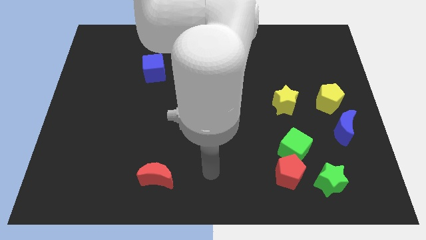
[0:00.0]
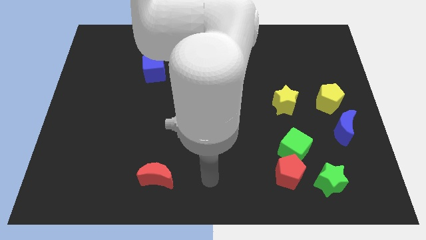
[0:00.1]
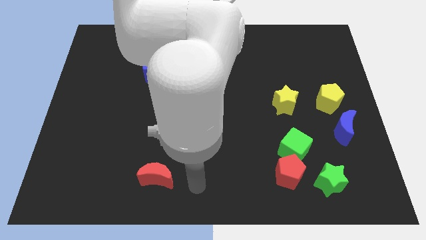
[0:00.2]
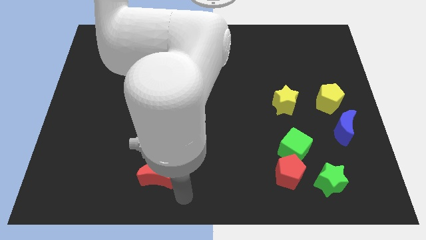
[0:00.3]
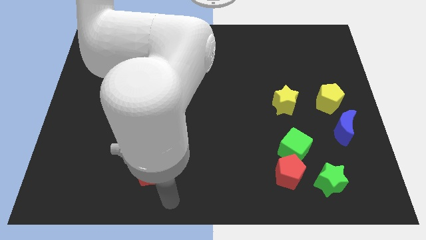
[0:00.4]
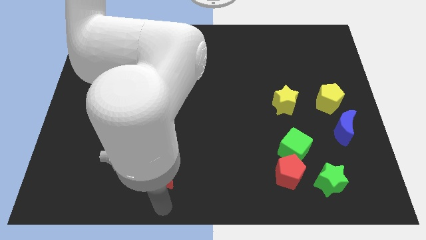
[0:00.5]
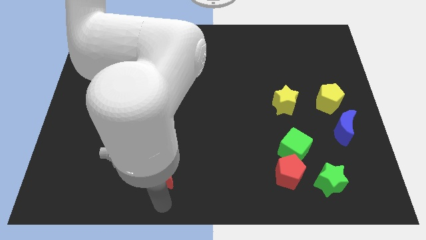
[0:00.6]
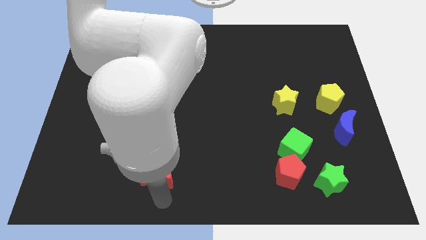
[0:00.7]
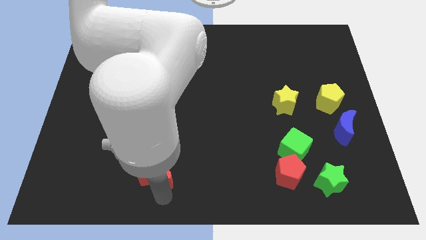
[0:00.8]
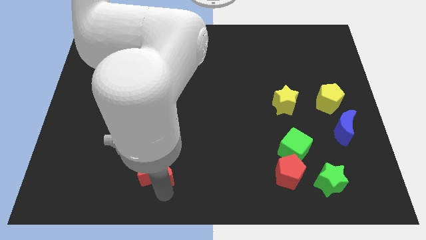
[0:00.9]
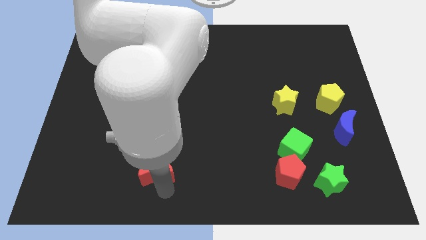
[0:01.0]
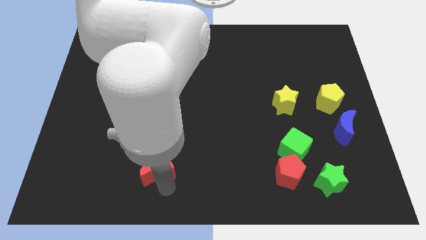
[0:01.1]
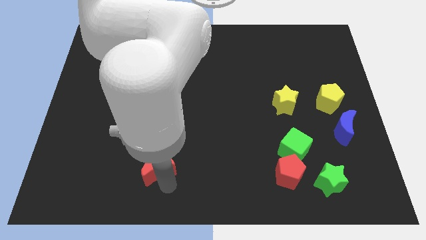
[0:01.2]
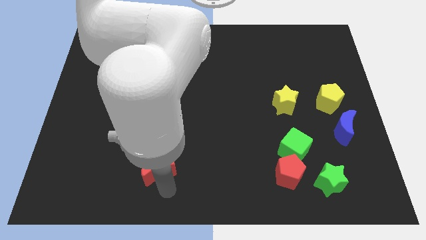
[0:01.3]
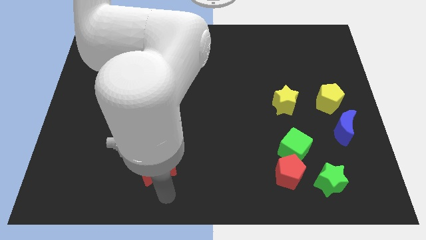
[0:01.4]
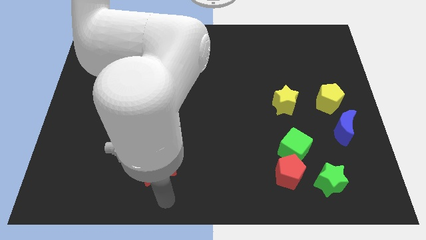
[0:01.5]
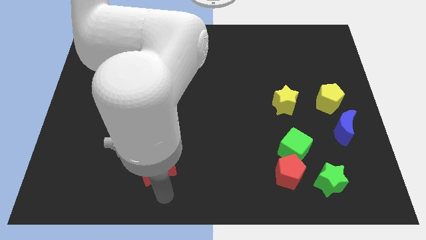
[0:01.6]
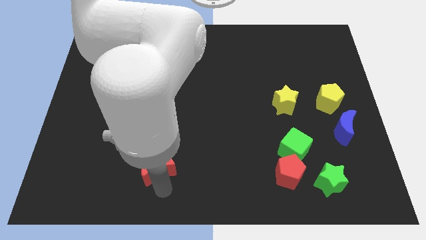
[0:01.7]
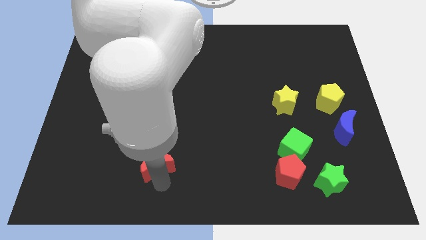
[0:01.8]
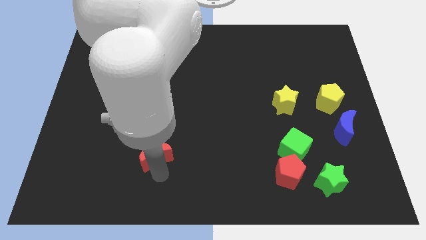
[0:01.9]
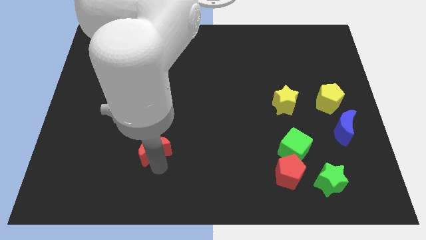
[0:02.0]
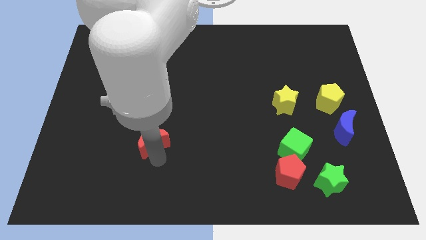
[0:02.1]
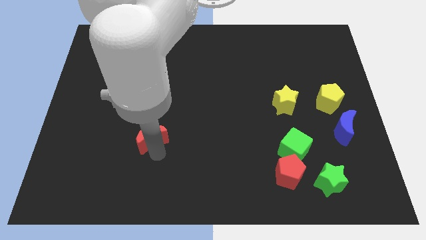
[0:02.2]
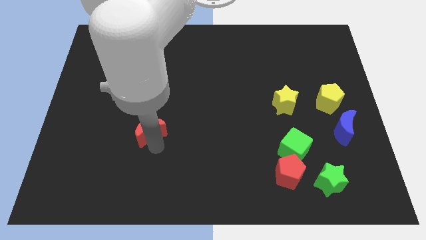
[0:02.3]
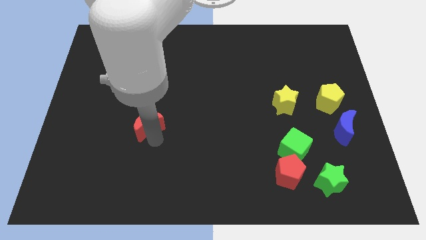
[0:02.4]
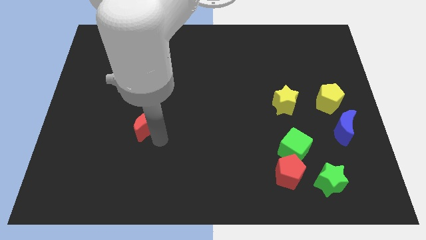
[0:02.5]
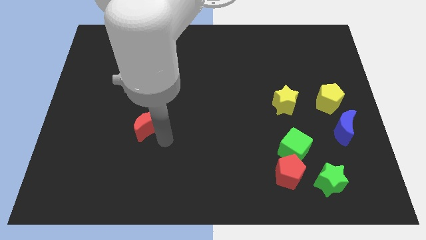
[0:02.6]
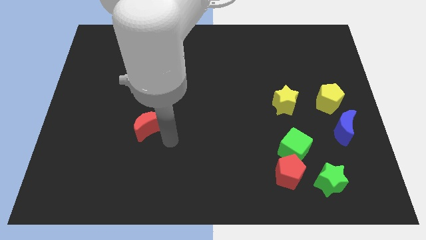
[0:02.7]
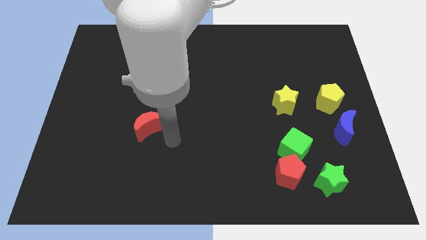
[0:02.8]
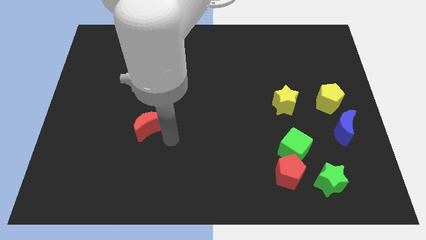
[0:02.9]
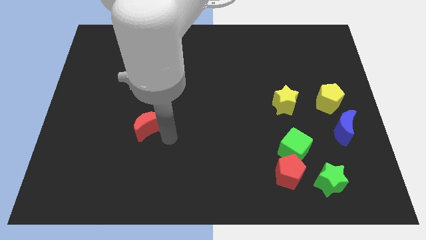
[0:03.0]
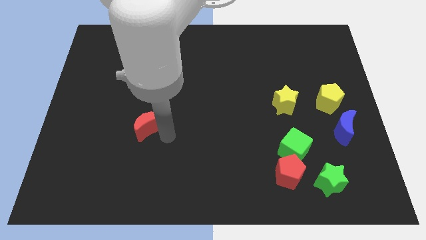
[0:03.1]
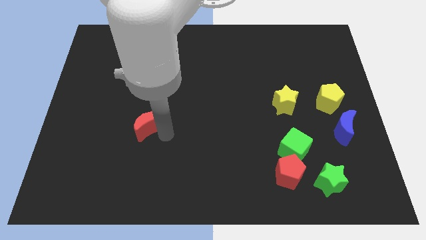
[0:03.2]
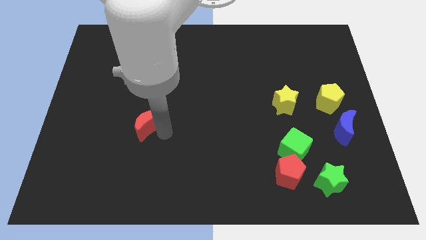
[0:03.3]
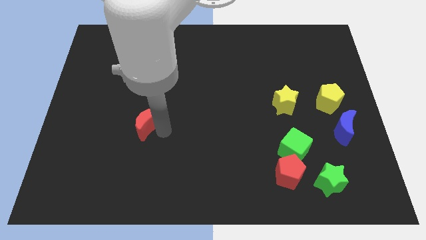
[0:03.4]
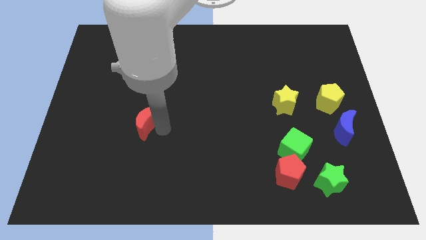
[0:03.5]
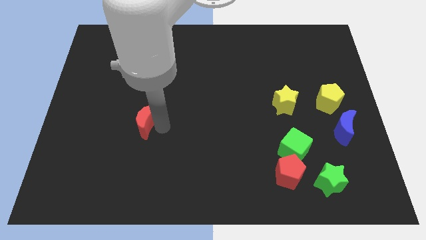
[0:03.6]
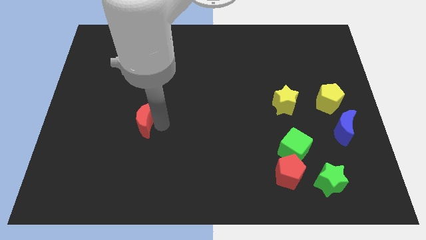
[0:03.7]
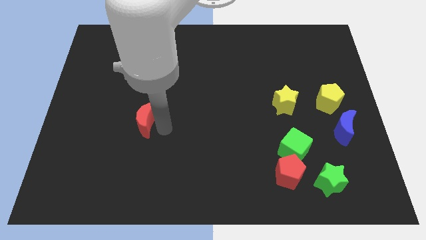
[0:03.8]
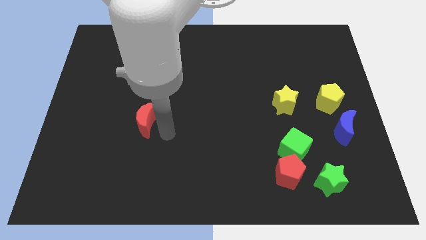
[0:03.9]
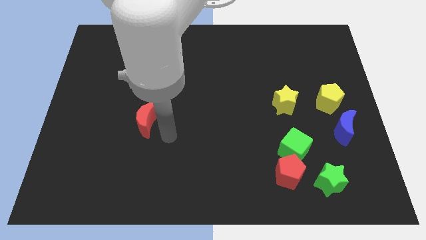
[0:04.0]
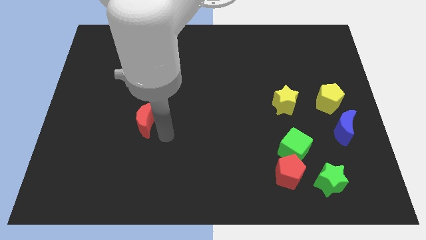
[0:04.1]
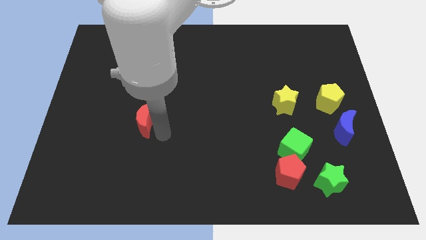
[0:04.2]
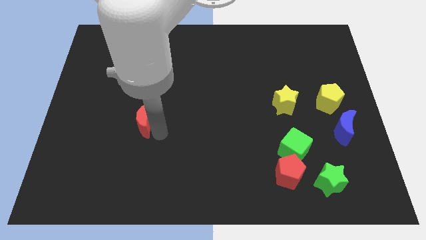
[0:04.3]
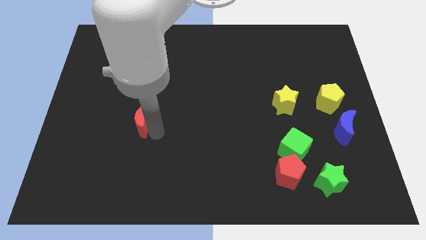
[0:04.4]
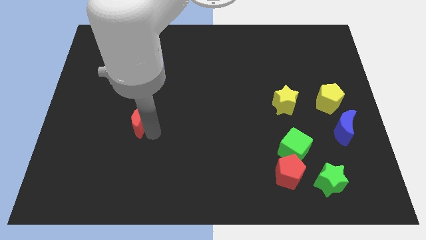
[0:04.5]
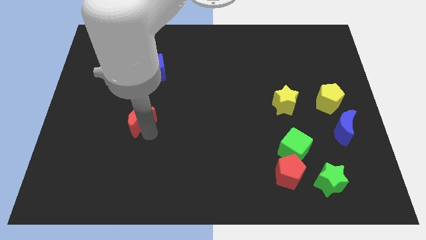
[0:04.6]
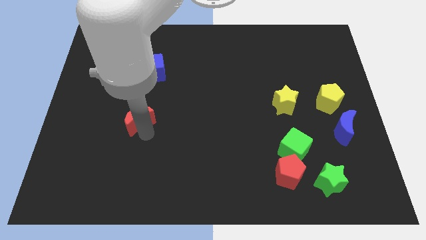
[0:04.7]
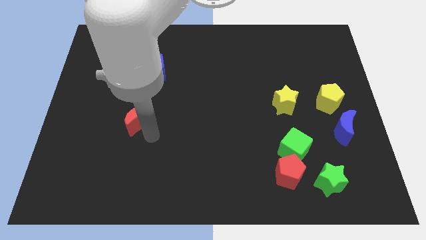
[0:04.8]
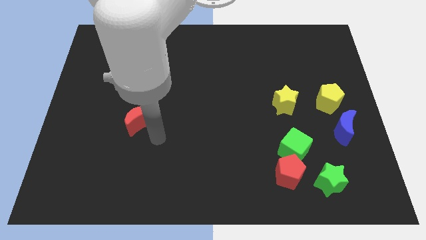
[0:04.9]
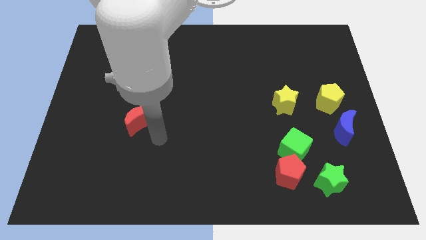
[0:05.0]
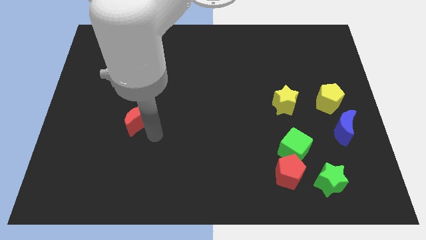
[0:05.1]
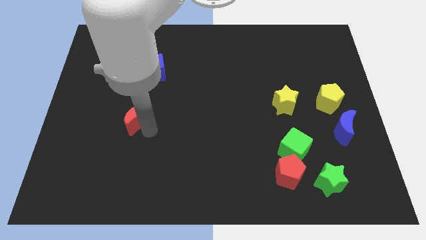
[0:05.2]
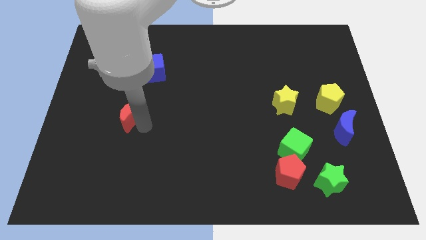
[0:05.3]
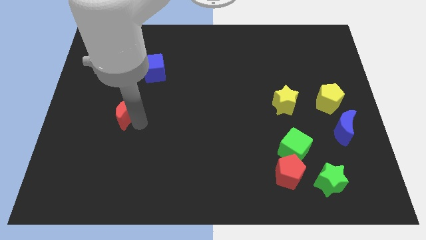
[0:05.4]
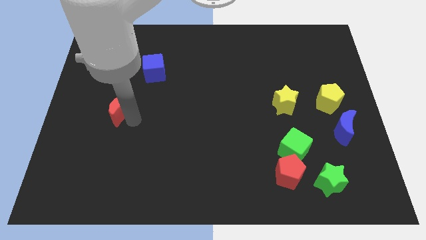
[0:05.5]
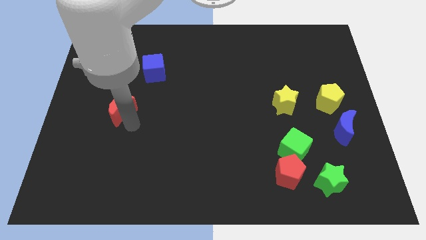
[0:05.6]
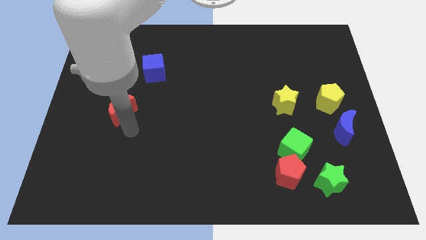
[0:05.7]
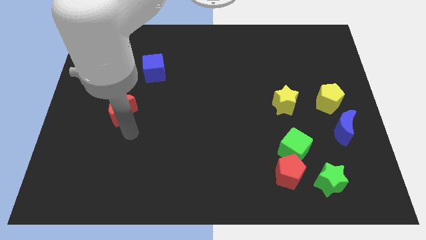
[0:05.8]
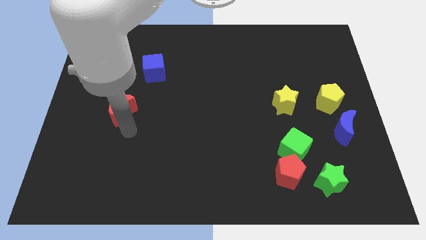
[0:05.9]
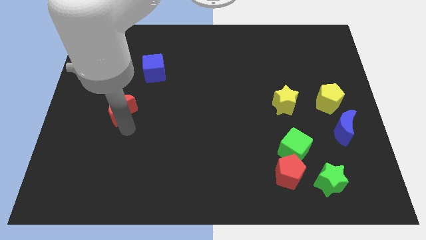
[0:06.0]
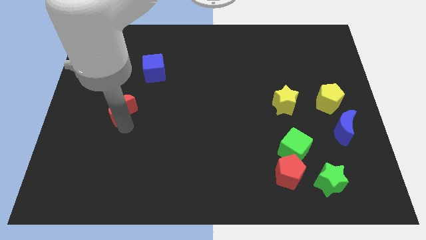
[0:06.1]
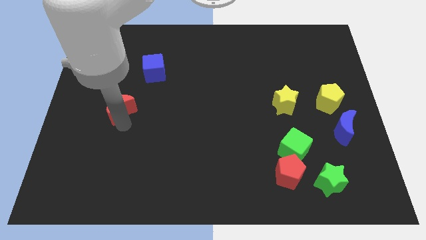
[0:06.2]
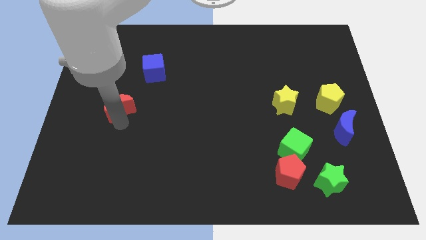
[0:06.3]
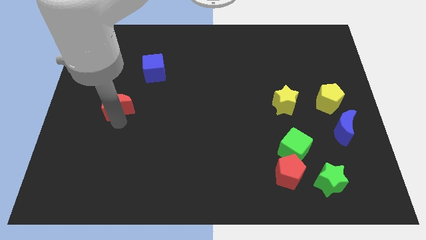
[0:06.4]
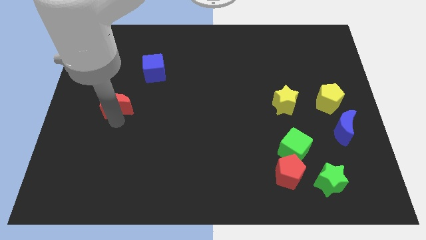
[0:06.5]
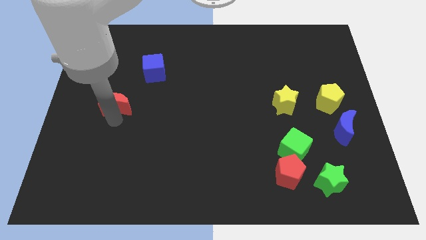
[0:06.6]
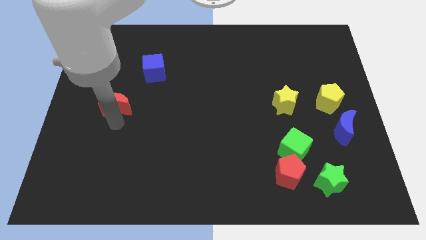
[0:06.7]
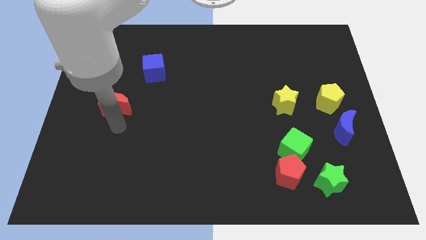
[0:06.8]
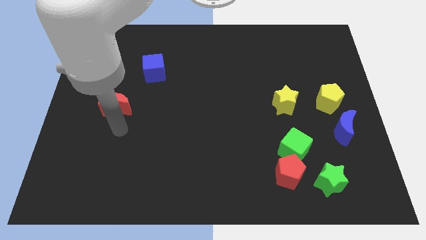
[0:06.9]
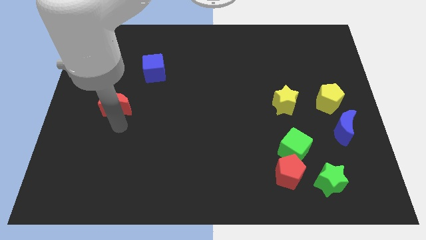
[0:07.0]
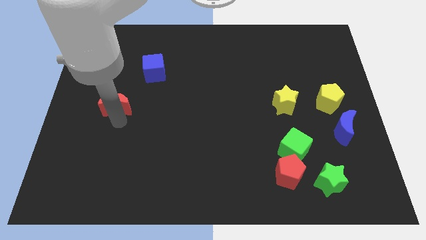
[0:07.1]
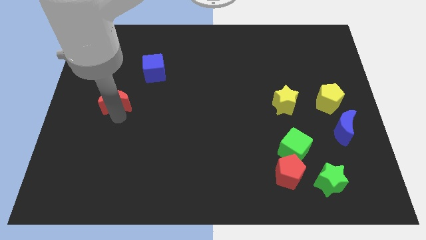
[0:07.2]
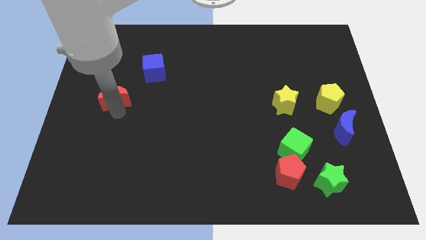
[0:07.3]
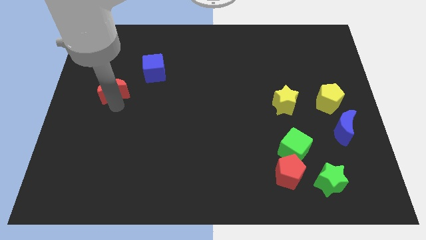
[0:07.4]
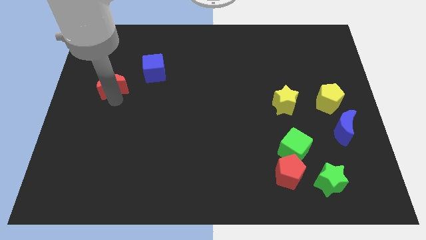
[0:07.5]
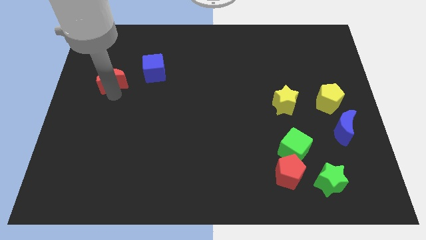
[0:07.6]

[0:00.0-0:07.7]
slide the red moon left of the blue cube
